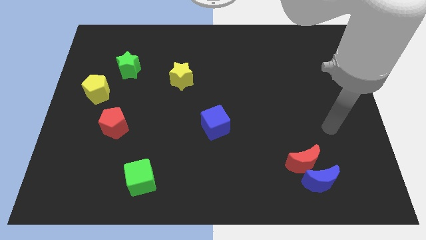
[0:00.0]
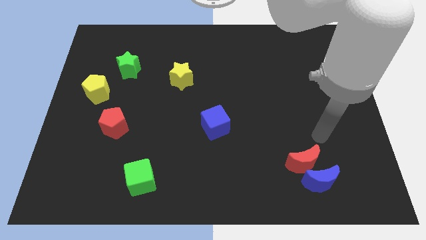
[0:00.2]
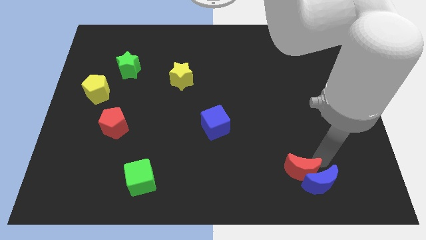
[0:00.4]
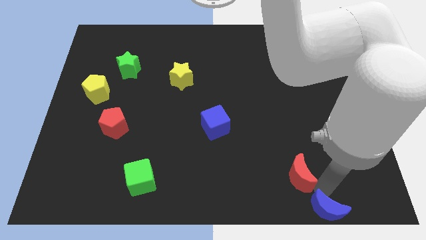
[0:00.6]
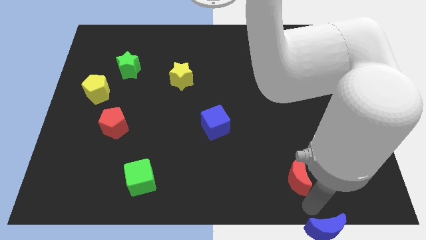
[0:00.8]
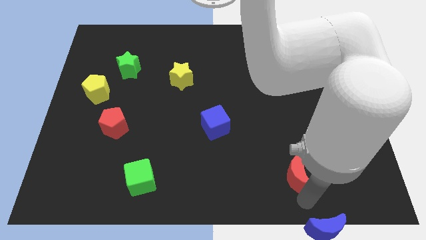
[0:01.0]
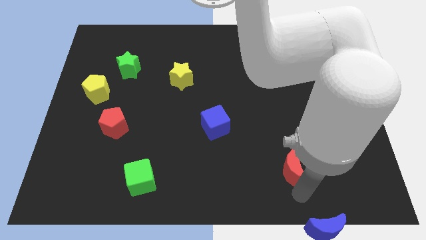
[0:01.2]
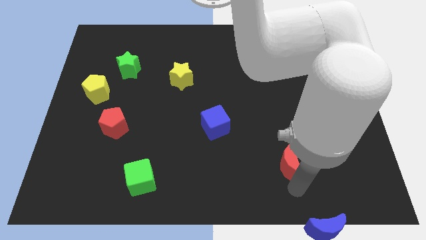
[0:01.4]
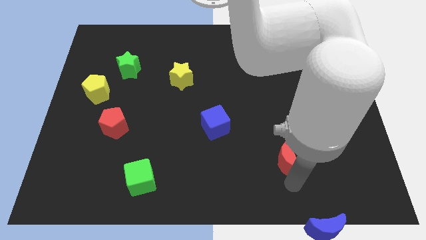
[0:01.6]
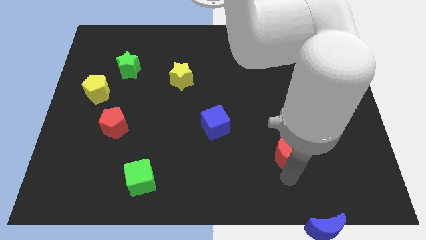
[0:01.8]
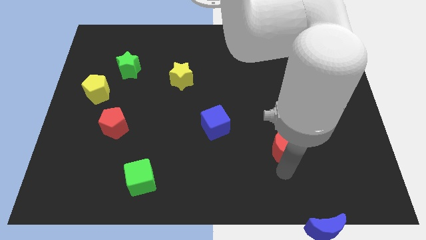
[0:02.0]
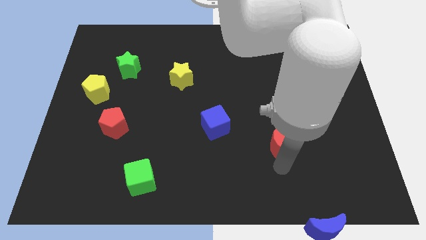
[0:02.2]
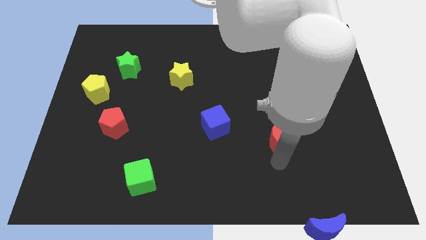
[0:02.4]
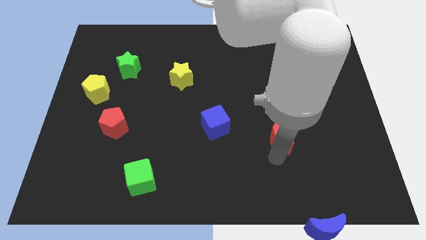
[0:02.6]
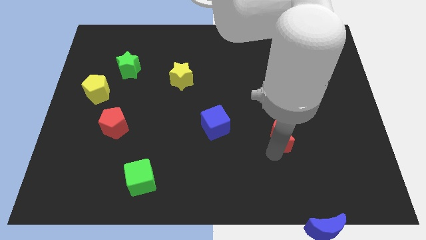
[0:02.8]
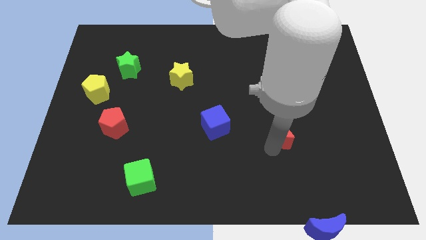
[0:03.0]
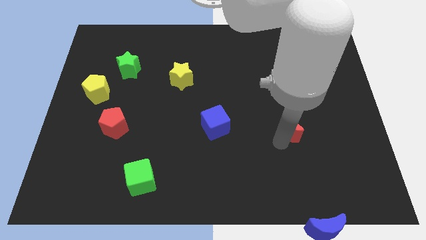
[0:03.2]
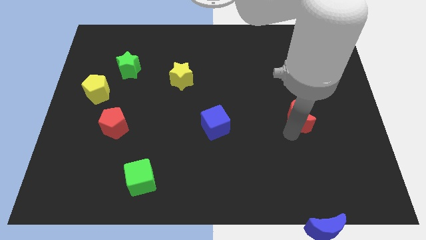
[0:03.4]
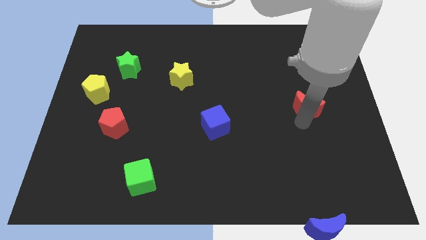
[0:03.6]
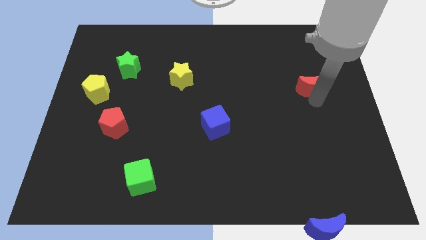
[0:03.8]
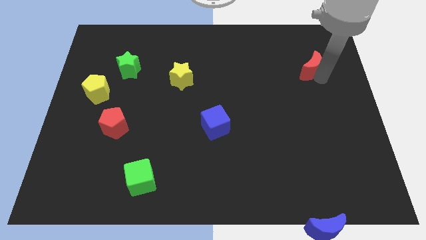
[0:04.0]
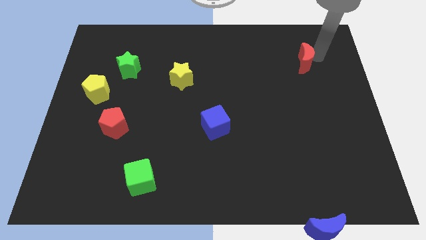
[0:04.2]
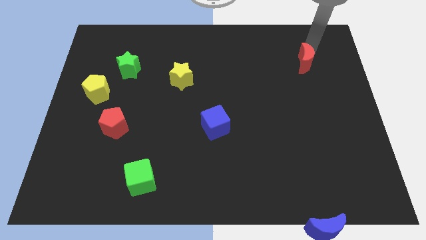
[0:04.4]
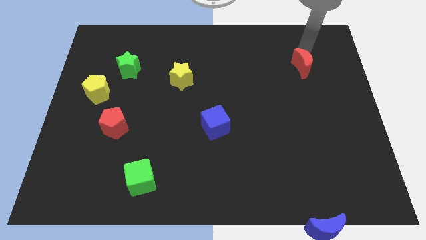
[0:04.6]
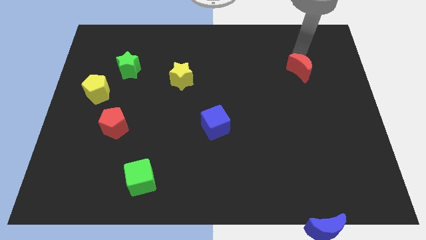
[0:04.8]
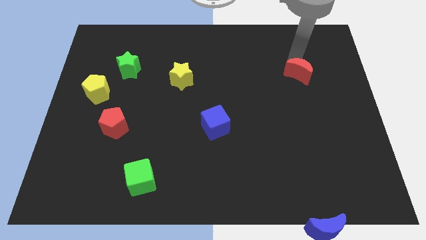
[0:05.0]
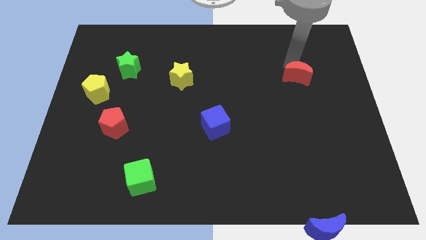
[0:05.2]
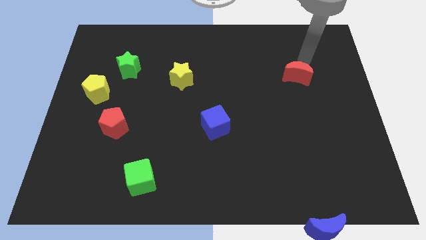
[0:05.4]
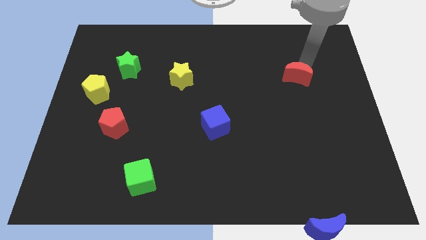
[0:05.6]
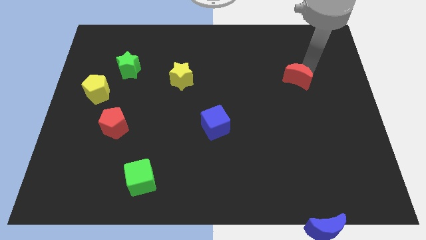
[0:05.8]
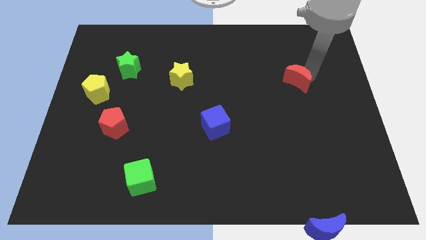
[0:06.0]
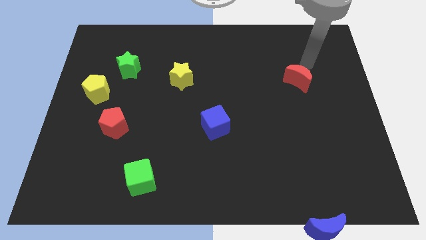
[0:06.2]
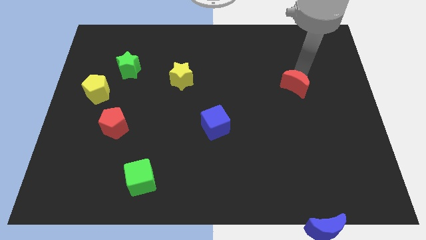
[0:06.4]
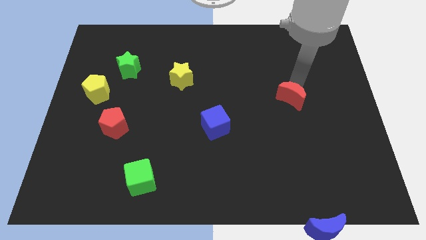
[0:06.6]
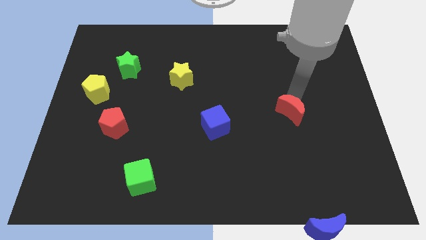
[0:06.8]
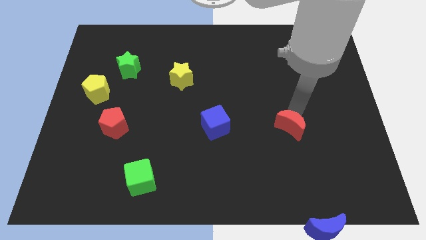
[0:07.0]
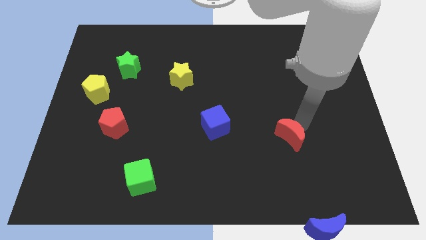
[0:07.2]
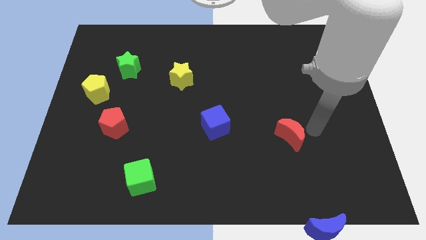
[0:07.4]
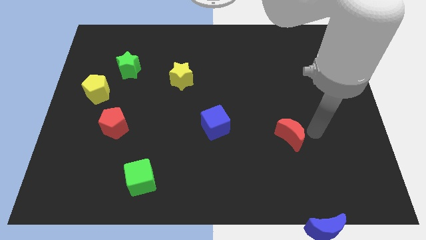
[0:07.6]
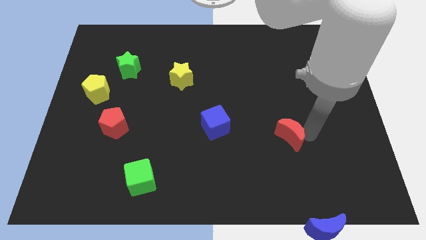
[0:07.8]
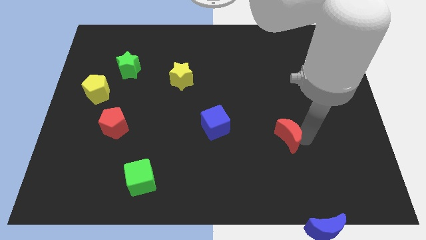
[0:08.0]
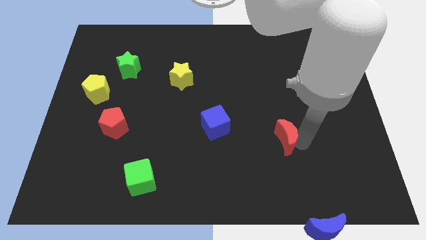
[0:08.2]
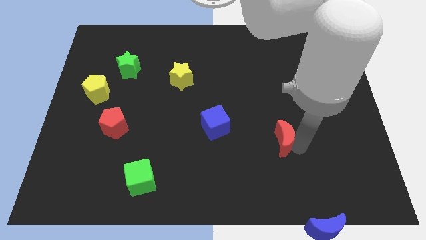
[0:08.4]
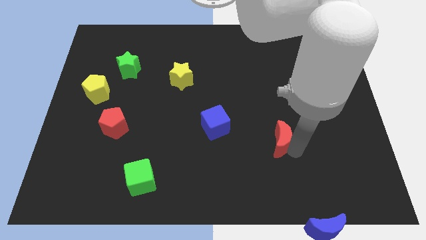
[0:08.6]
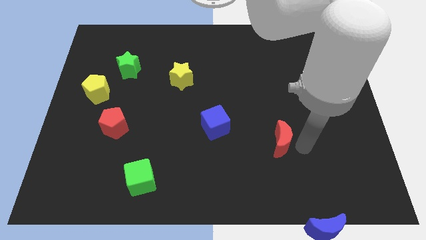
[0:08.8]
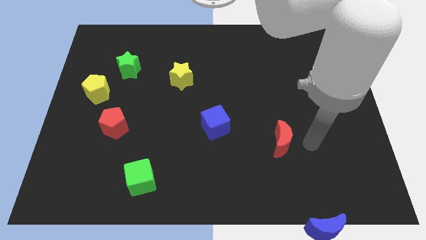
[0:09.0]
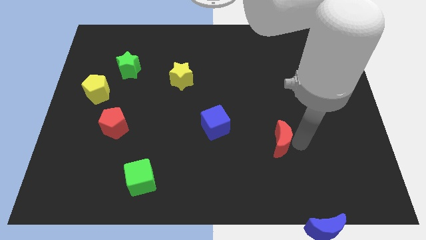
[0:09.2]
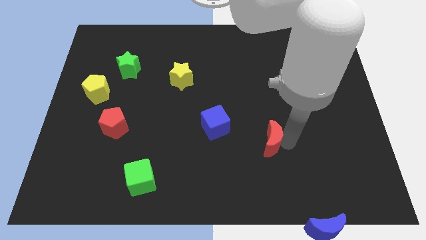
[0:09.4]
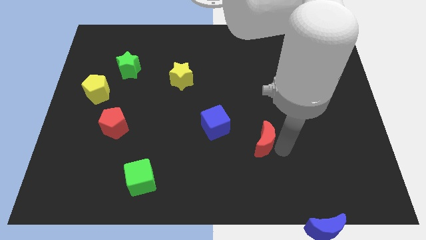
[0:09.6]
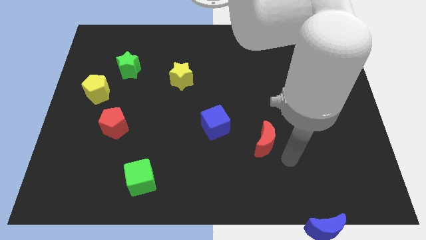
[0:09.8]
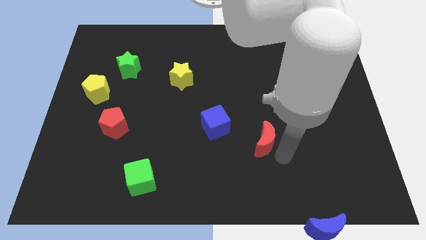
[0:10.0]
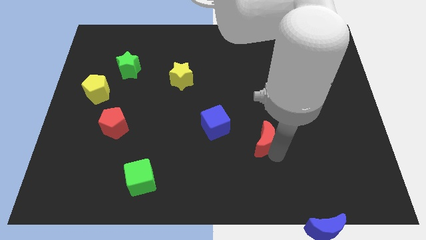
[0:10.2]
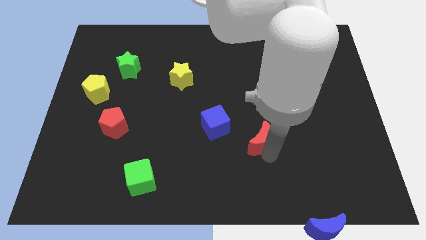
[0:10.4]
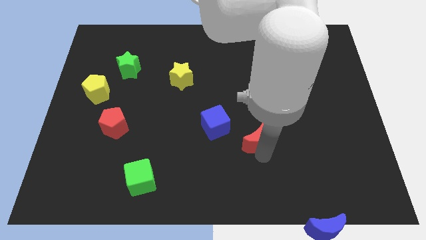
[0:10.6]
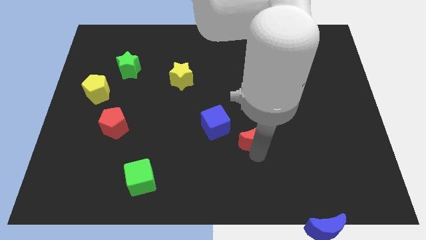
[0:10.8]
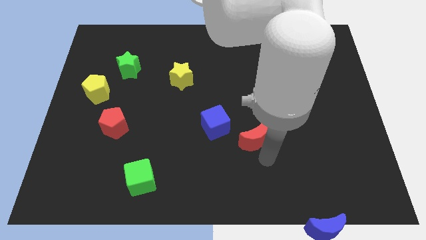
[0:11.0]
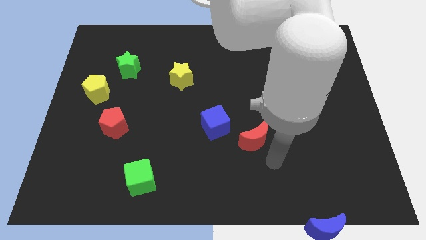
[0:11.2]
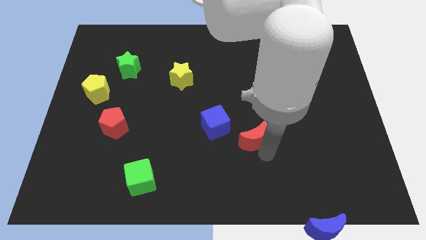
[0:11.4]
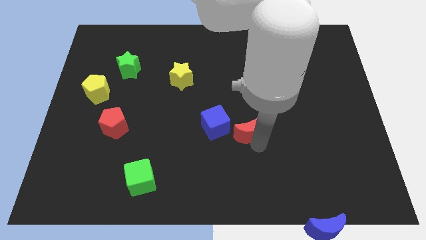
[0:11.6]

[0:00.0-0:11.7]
move the red moon to the middle of the board
